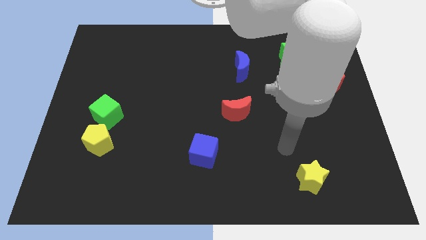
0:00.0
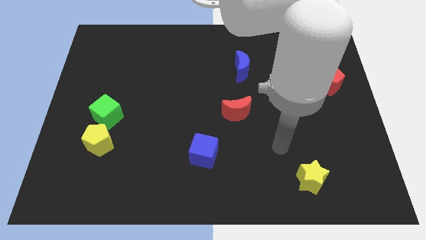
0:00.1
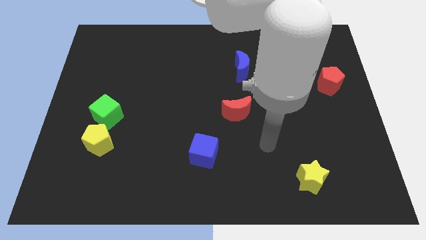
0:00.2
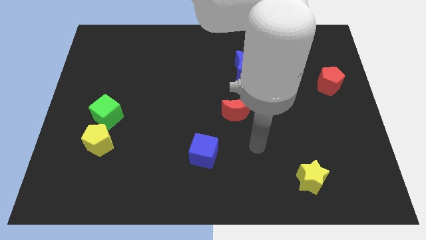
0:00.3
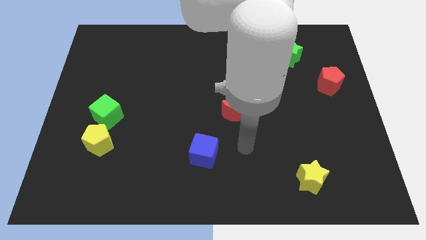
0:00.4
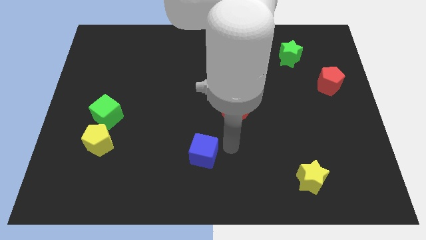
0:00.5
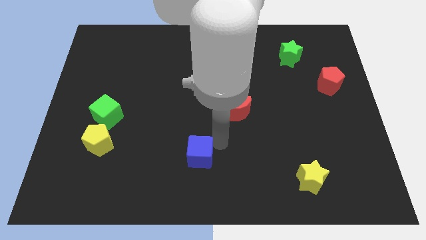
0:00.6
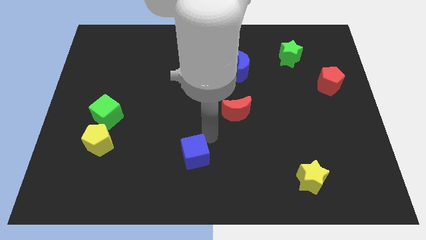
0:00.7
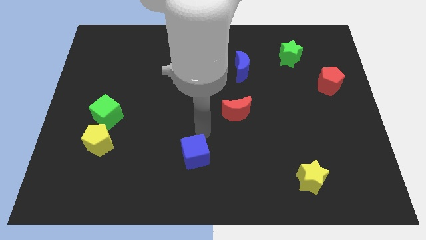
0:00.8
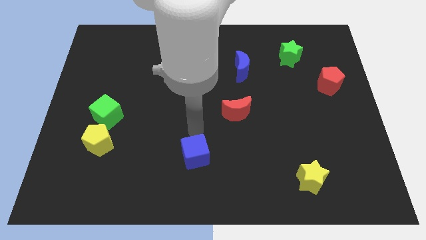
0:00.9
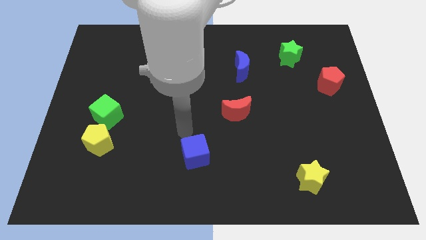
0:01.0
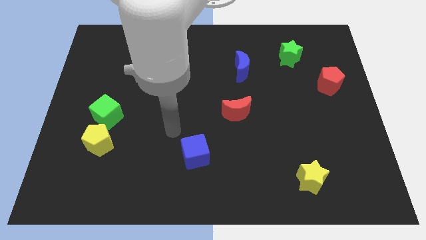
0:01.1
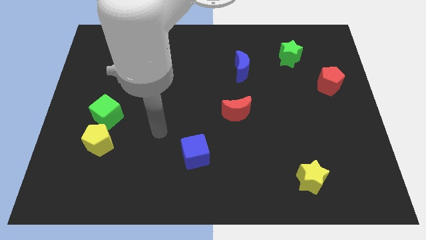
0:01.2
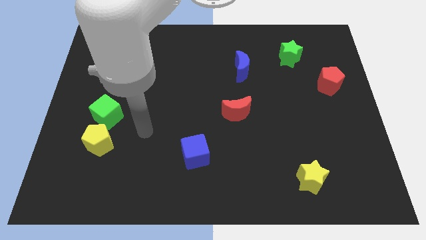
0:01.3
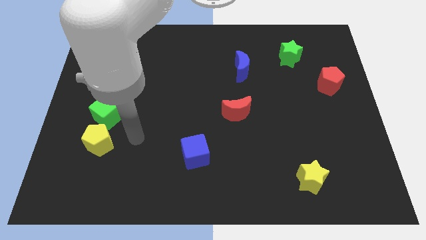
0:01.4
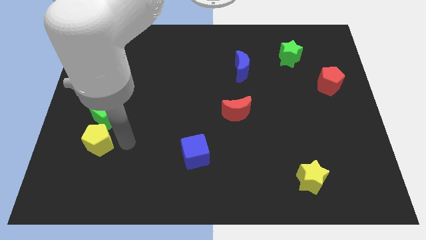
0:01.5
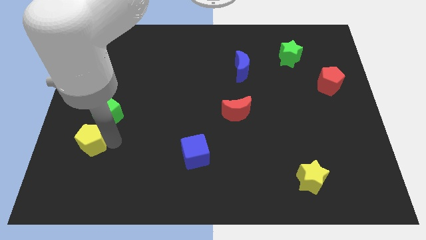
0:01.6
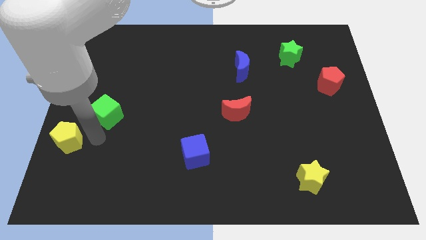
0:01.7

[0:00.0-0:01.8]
separate the green cube from the yellow pentagon

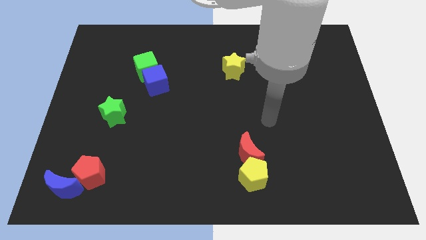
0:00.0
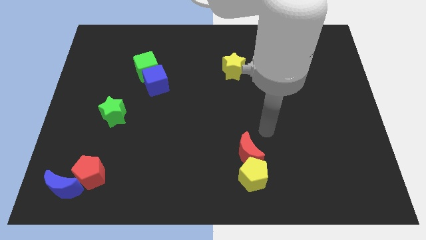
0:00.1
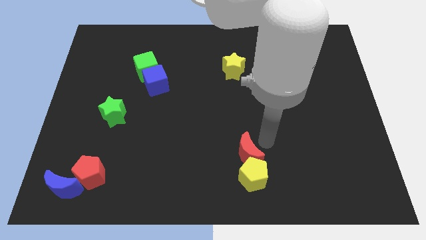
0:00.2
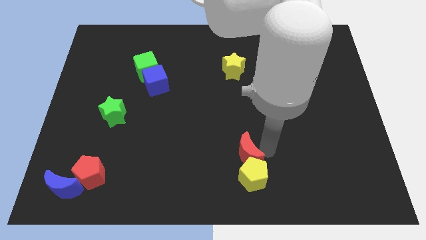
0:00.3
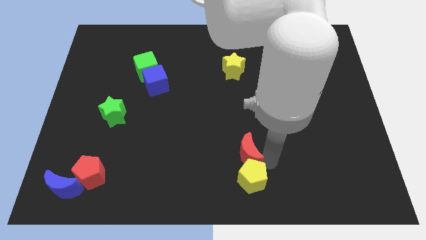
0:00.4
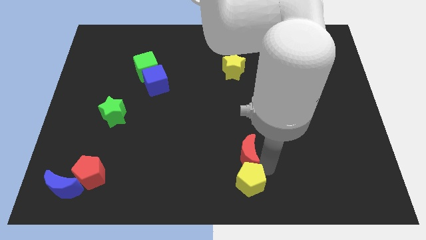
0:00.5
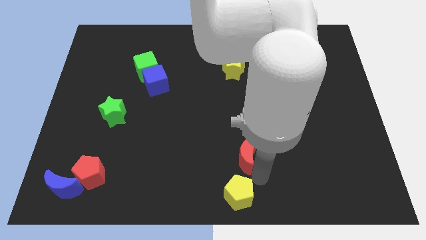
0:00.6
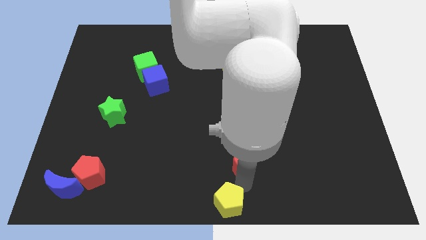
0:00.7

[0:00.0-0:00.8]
pull the red moon apart from the yellow pentagon

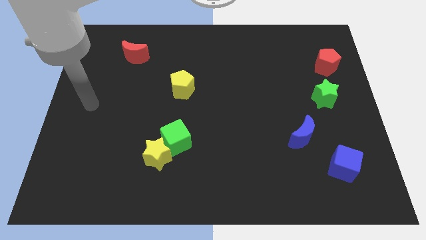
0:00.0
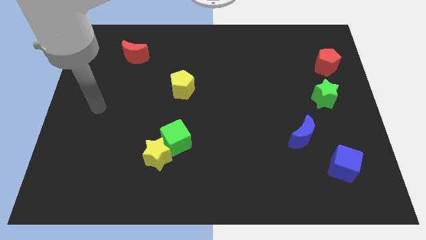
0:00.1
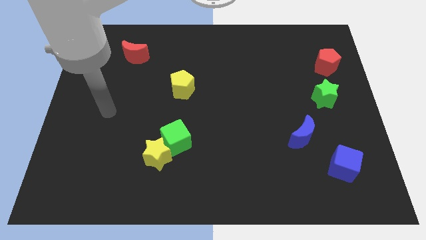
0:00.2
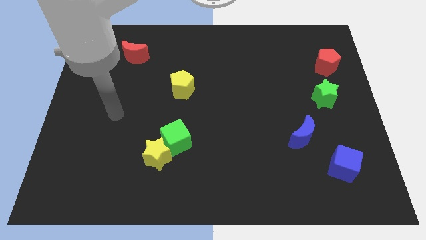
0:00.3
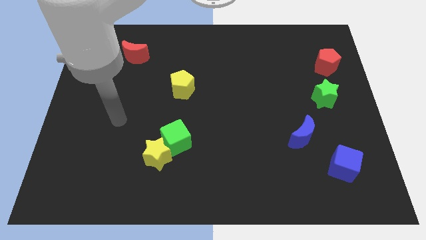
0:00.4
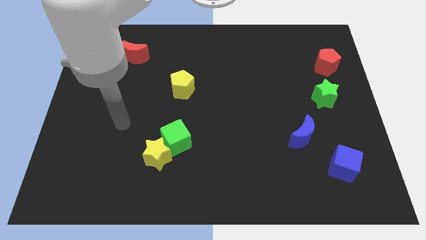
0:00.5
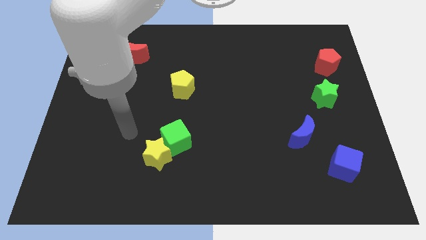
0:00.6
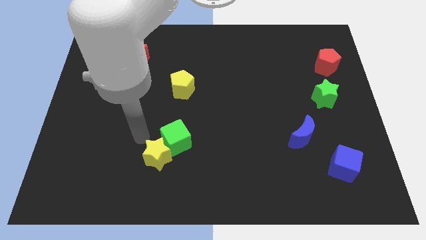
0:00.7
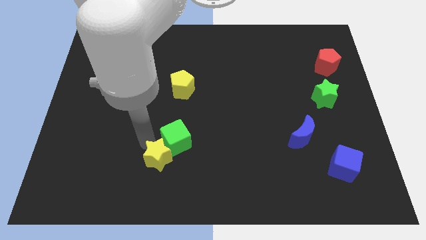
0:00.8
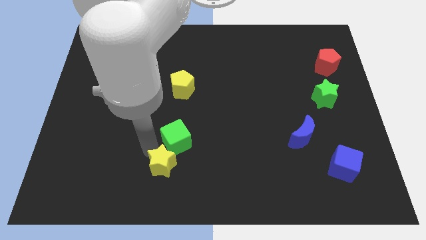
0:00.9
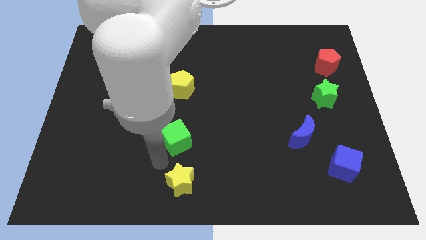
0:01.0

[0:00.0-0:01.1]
separate the green cube from the yellow star

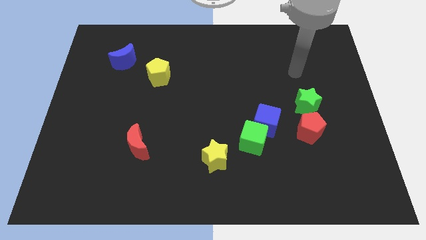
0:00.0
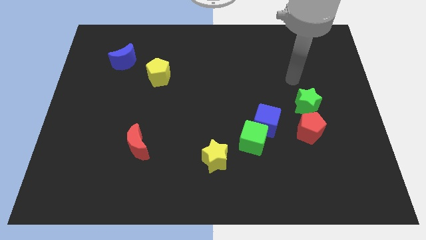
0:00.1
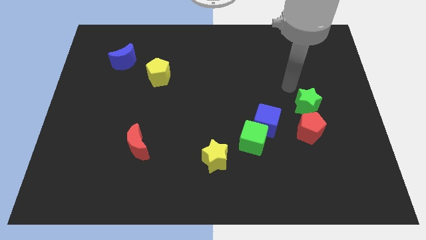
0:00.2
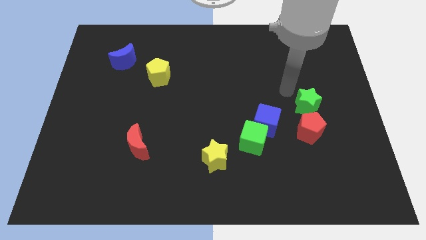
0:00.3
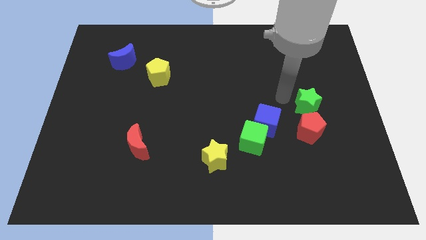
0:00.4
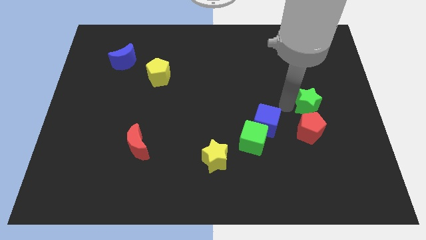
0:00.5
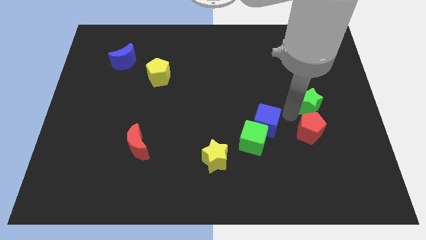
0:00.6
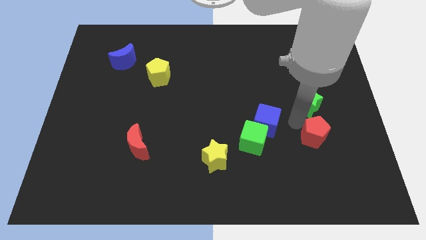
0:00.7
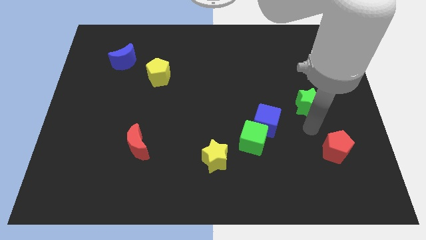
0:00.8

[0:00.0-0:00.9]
pull the green star apart from the red pentagon

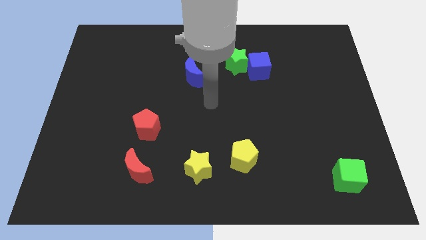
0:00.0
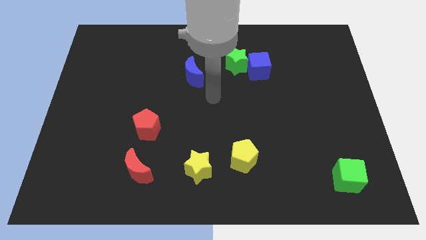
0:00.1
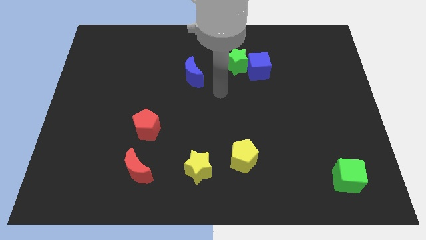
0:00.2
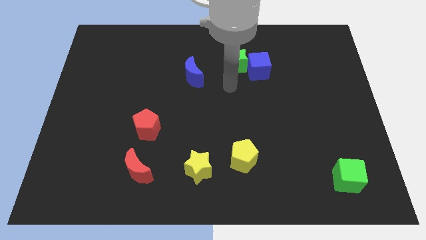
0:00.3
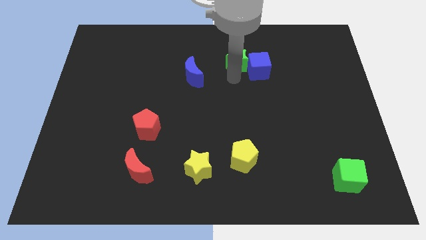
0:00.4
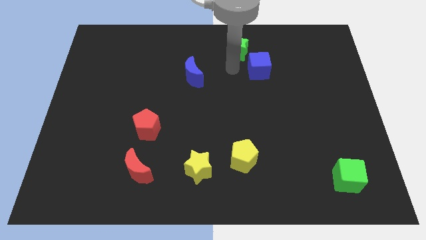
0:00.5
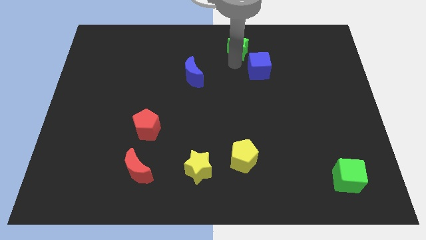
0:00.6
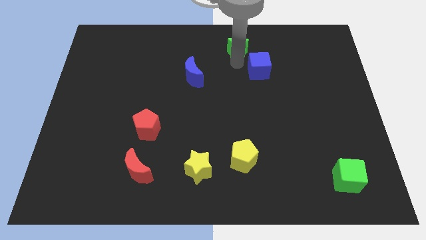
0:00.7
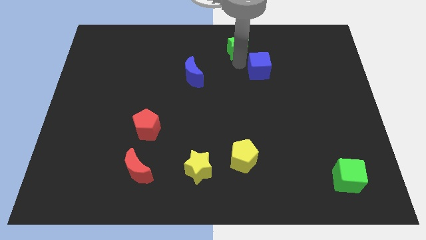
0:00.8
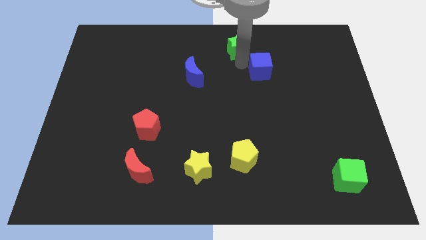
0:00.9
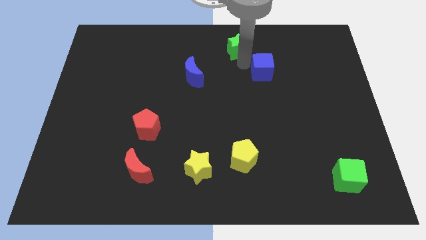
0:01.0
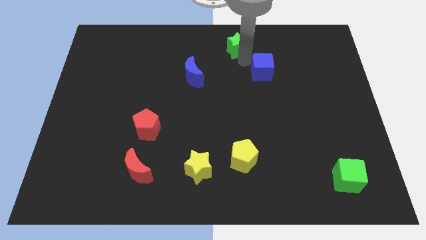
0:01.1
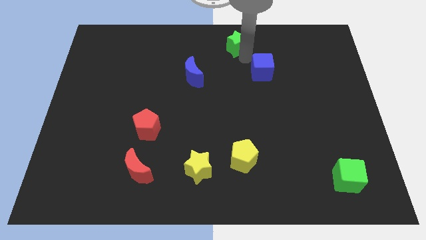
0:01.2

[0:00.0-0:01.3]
move the blue cube away from the green star

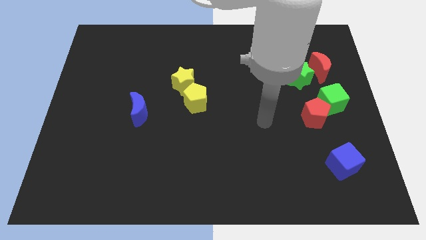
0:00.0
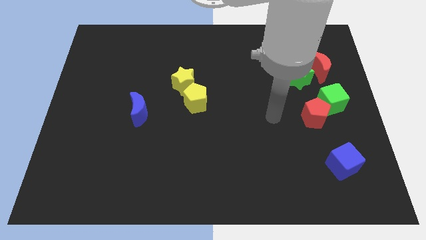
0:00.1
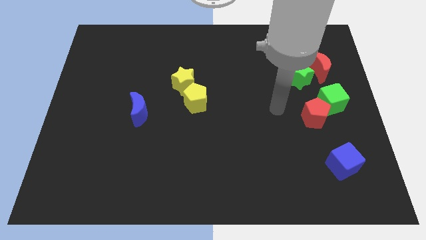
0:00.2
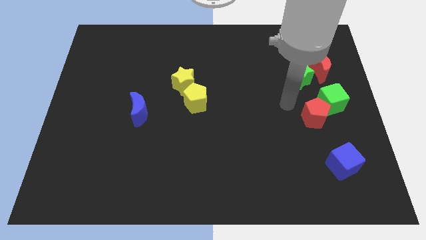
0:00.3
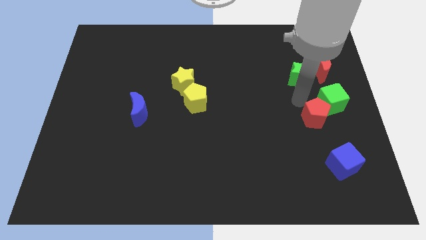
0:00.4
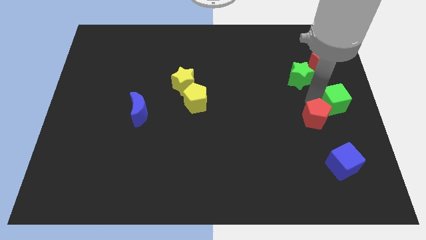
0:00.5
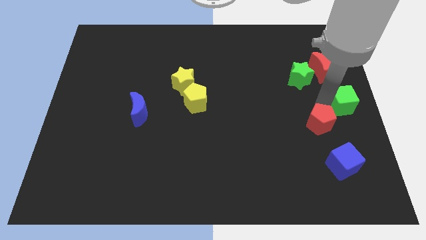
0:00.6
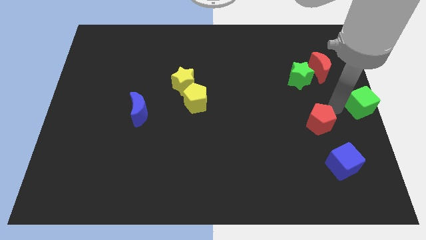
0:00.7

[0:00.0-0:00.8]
separate the red pentagon from the green cube

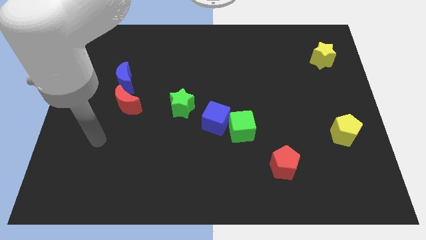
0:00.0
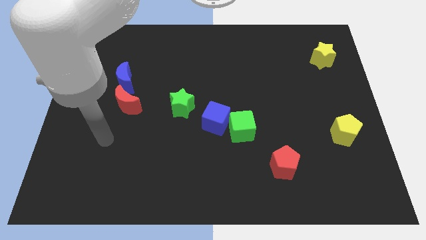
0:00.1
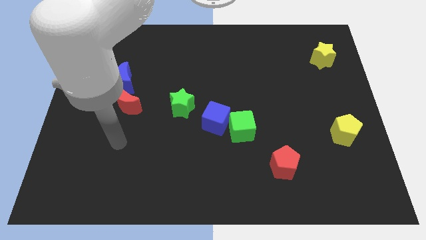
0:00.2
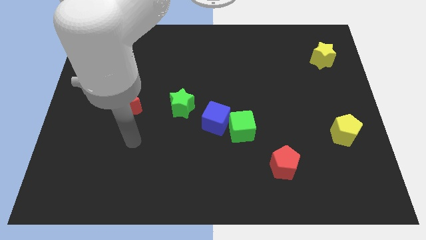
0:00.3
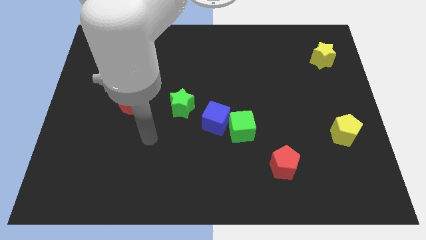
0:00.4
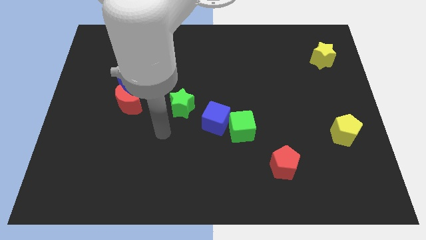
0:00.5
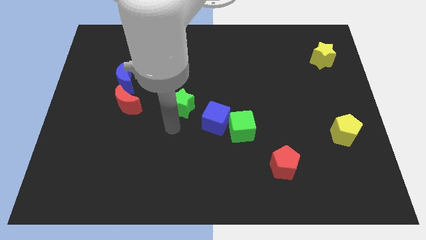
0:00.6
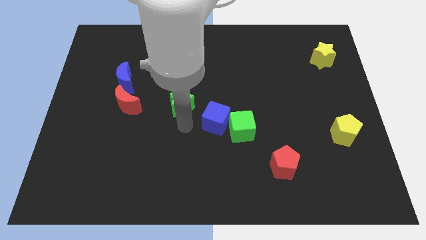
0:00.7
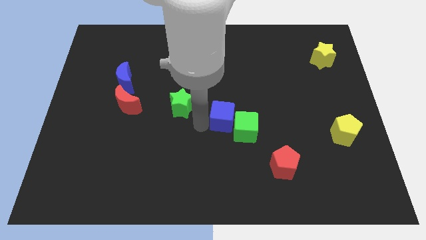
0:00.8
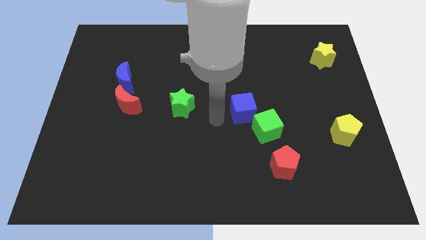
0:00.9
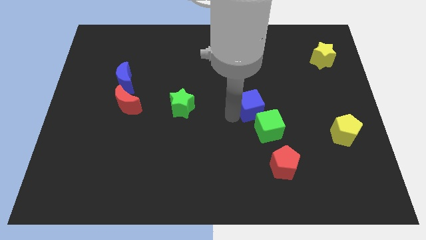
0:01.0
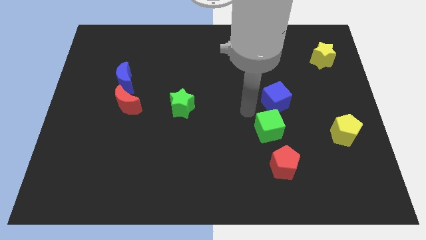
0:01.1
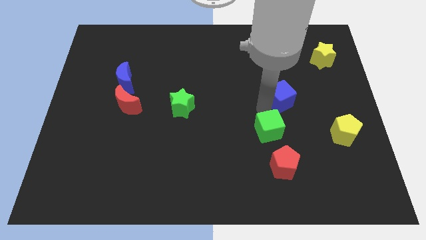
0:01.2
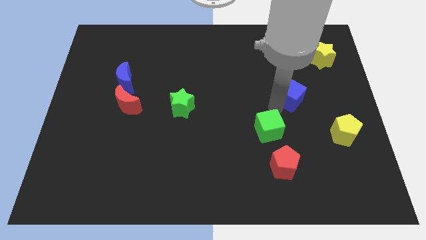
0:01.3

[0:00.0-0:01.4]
separate the green cube from the blue cube

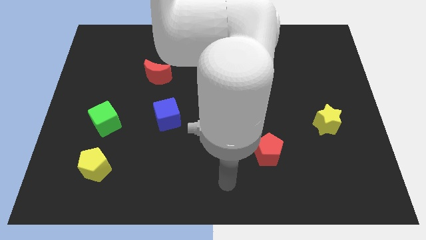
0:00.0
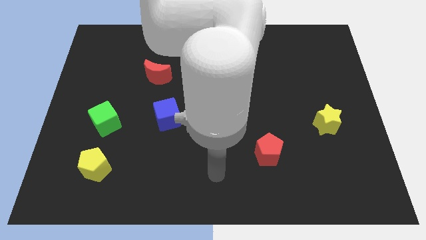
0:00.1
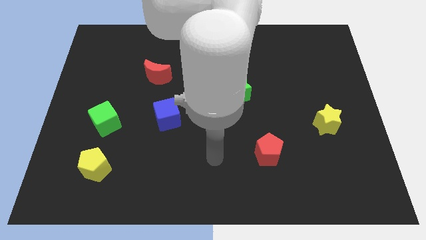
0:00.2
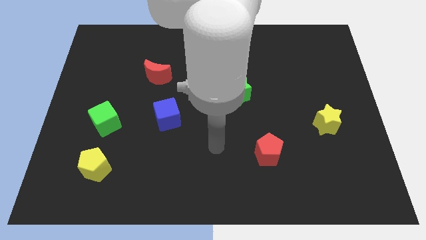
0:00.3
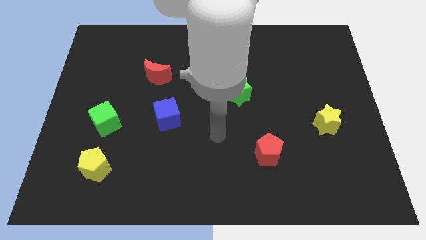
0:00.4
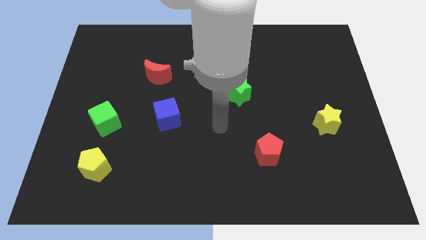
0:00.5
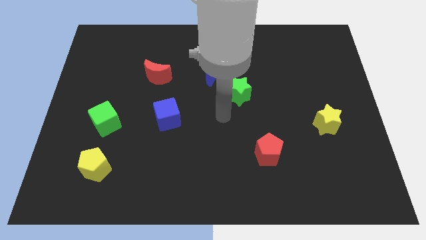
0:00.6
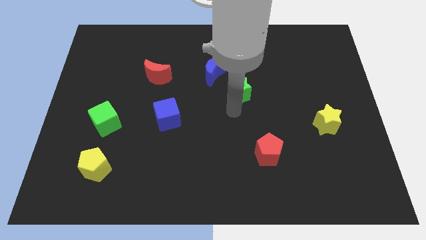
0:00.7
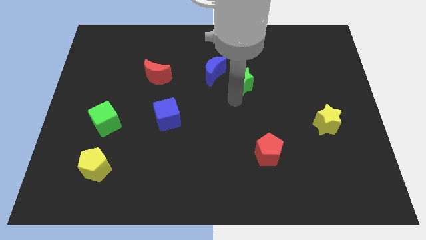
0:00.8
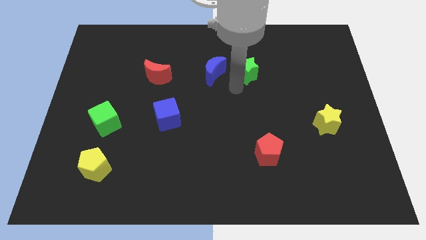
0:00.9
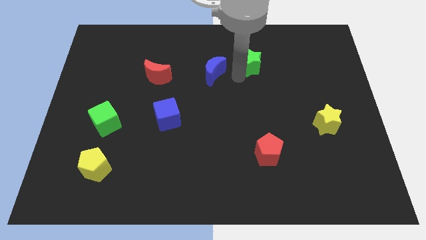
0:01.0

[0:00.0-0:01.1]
move the blue moon away from the green star

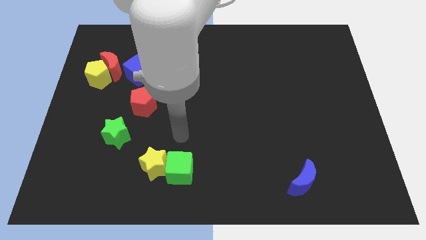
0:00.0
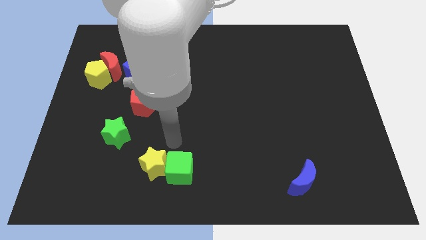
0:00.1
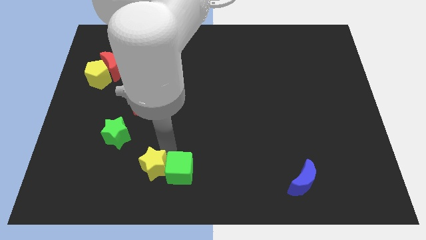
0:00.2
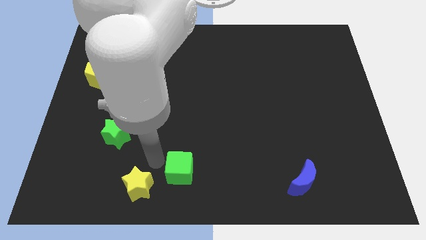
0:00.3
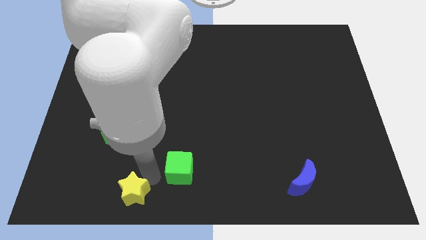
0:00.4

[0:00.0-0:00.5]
move the green cube away from the yellow star
